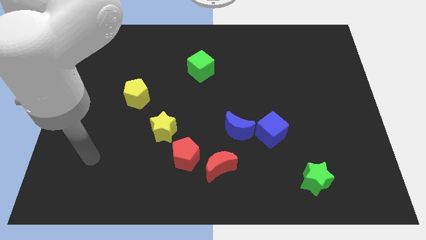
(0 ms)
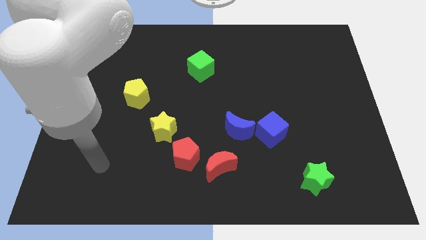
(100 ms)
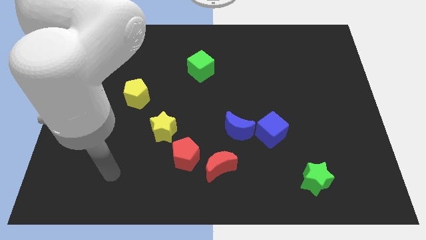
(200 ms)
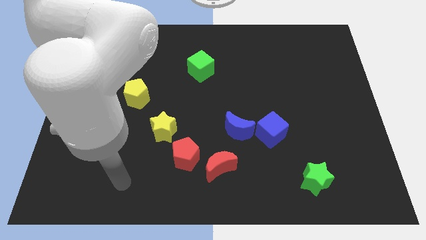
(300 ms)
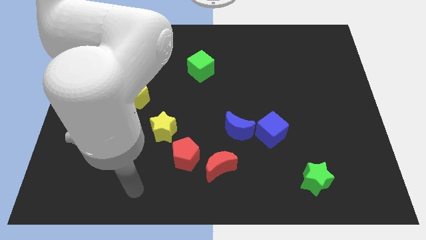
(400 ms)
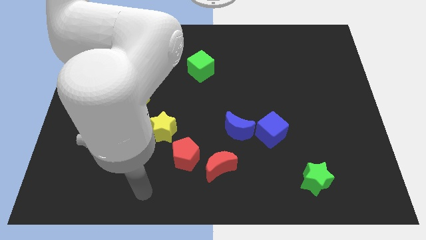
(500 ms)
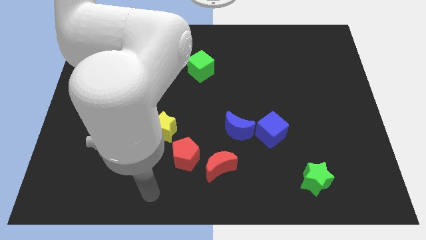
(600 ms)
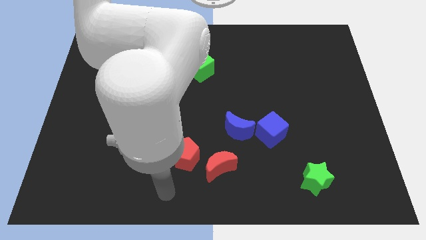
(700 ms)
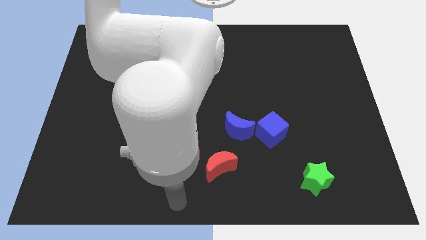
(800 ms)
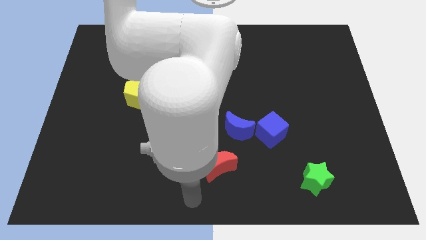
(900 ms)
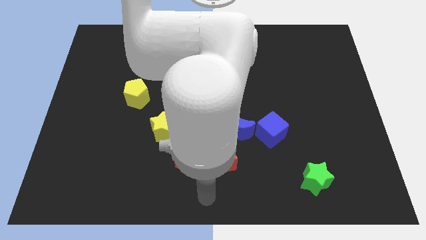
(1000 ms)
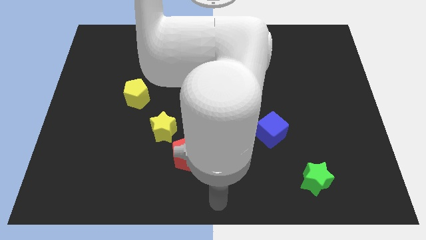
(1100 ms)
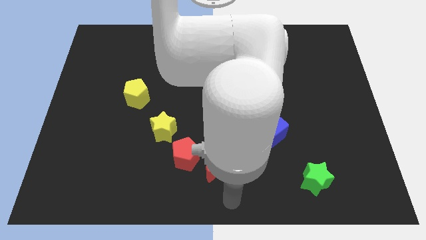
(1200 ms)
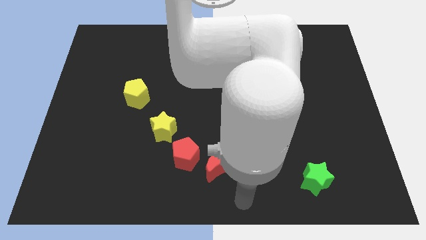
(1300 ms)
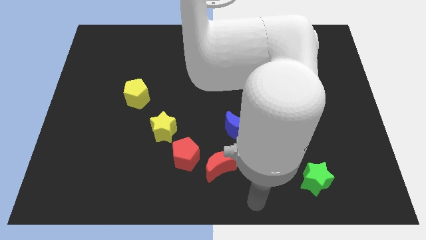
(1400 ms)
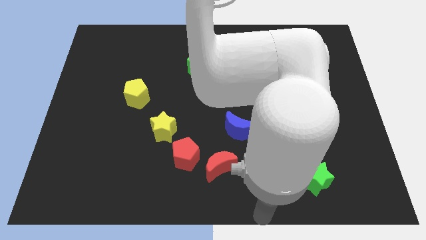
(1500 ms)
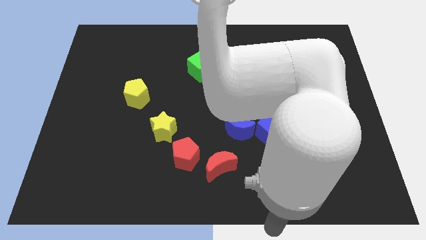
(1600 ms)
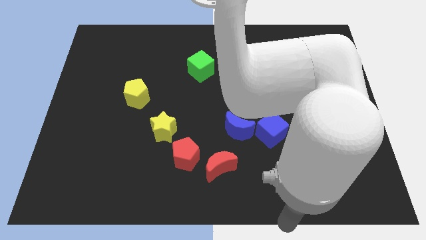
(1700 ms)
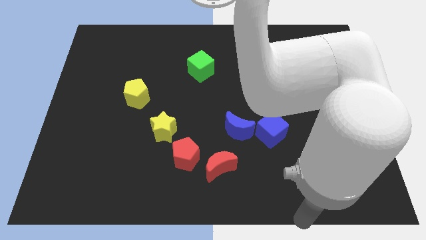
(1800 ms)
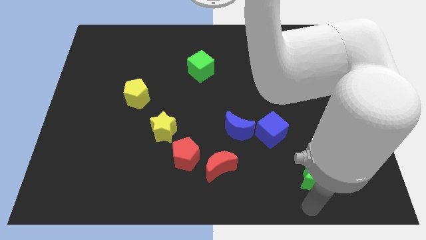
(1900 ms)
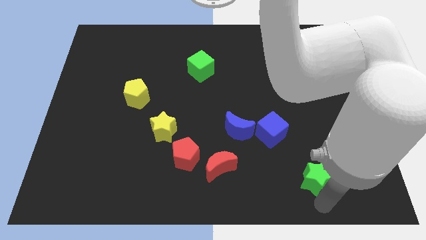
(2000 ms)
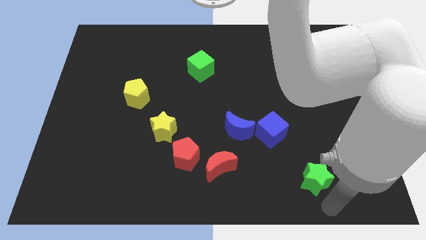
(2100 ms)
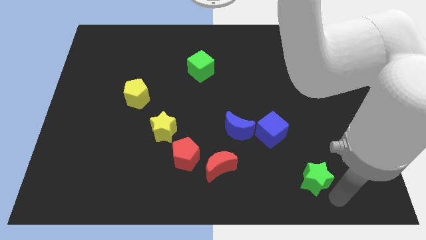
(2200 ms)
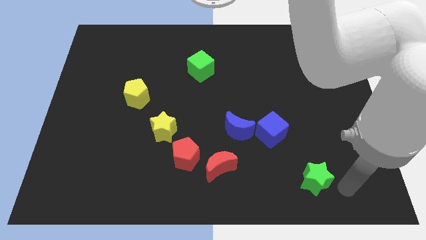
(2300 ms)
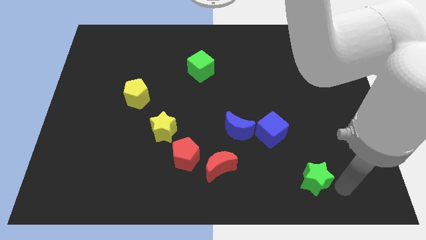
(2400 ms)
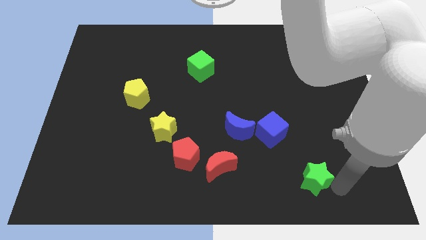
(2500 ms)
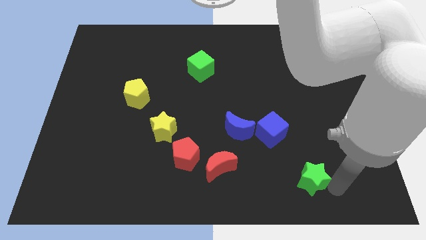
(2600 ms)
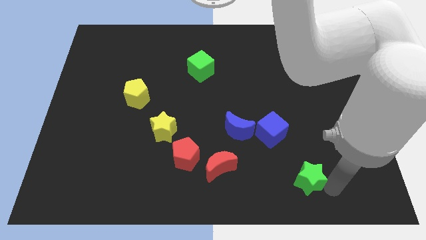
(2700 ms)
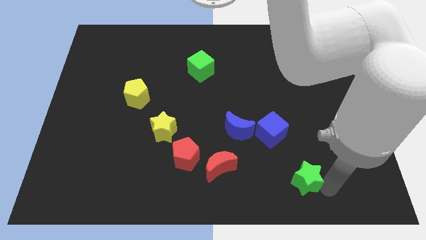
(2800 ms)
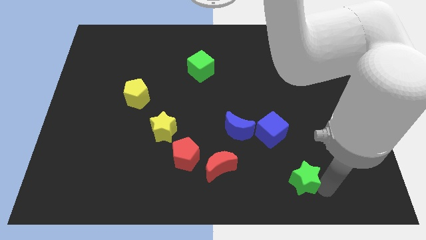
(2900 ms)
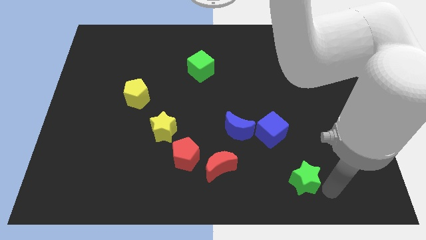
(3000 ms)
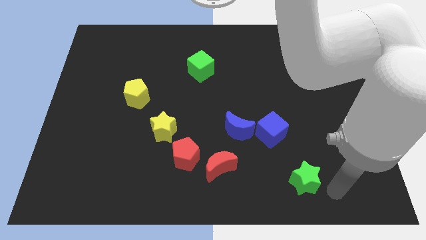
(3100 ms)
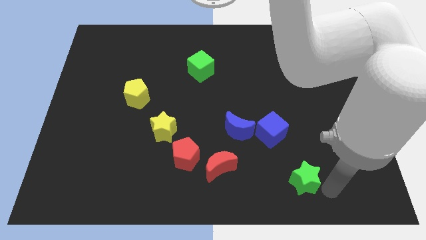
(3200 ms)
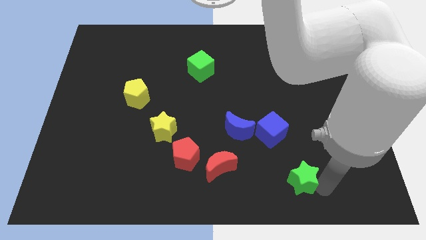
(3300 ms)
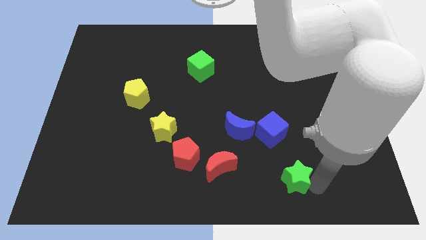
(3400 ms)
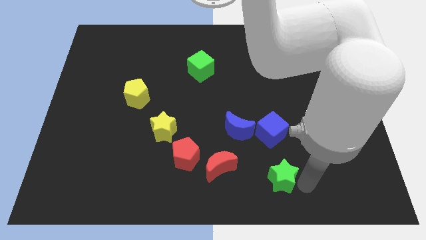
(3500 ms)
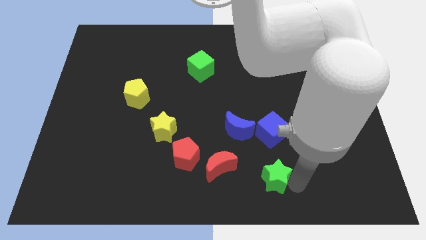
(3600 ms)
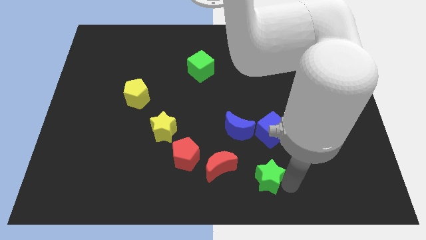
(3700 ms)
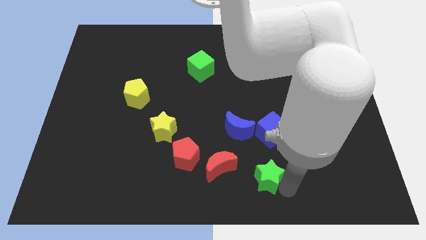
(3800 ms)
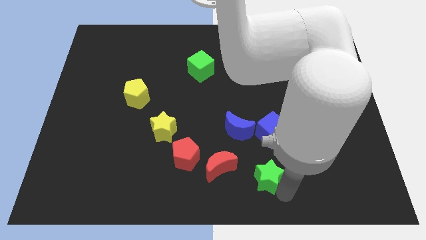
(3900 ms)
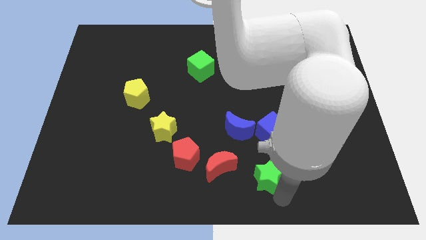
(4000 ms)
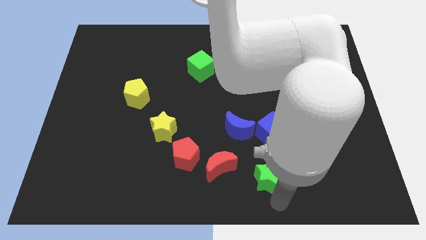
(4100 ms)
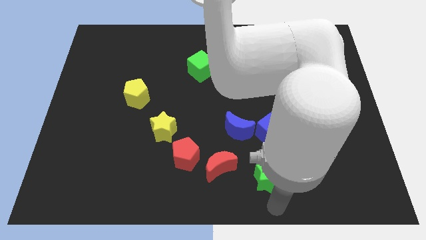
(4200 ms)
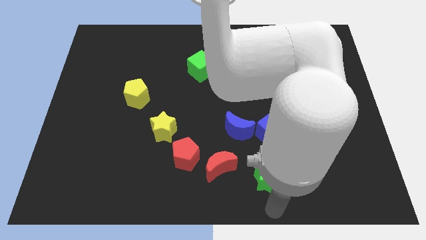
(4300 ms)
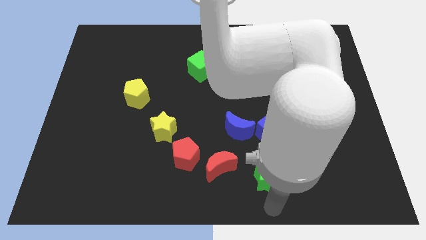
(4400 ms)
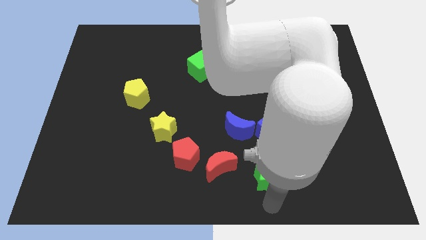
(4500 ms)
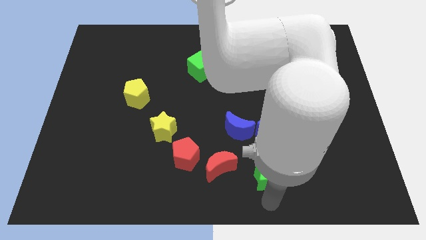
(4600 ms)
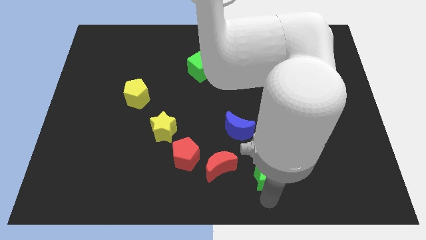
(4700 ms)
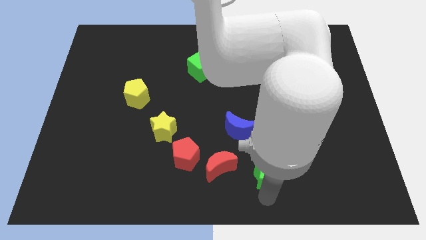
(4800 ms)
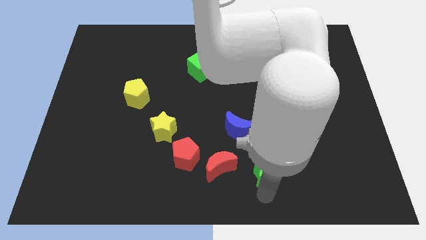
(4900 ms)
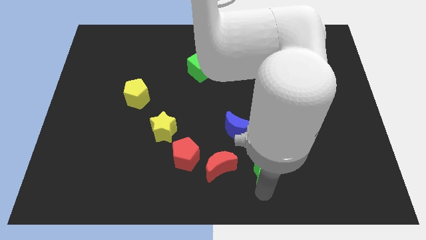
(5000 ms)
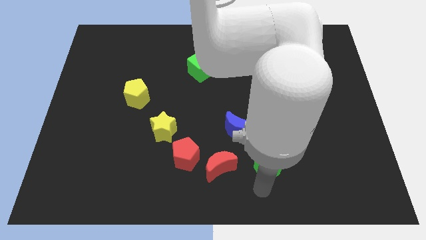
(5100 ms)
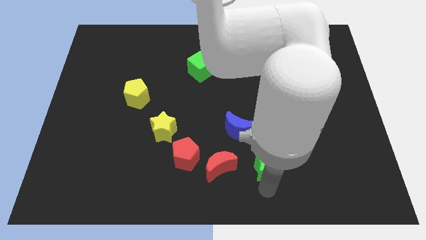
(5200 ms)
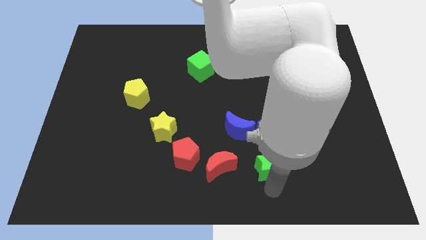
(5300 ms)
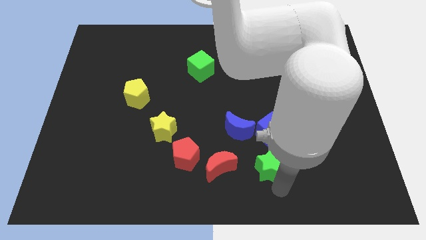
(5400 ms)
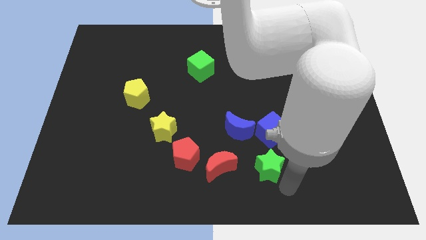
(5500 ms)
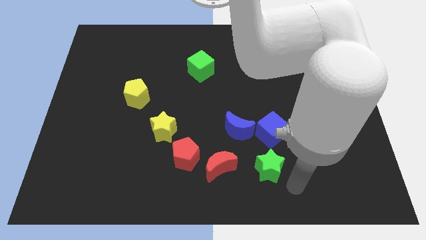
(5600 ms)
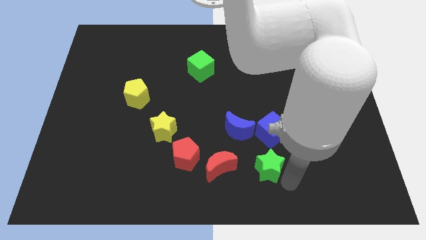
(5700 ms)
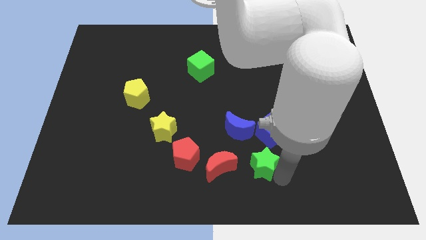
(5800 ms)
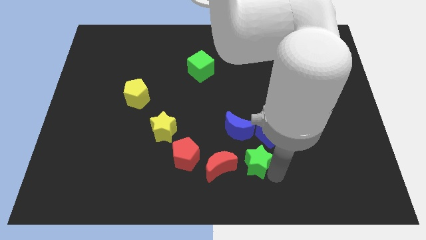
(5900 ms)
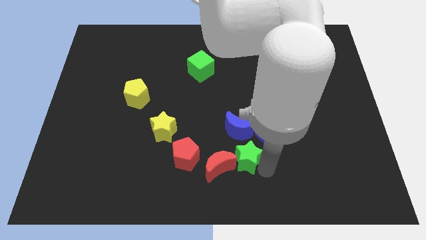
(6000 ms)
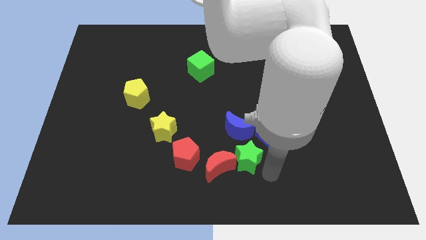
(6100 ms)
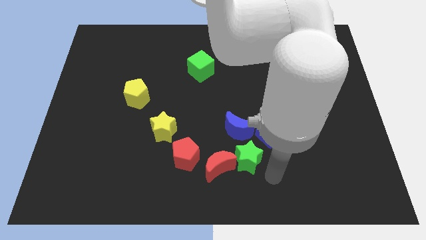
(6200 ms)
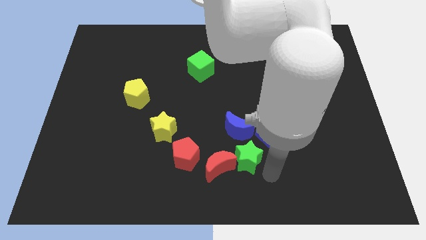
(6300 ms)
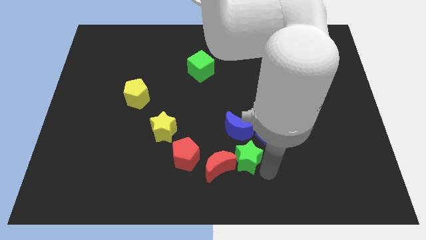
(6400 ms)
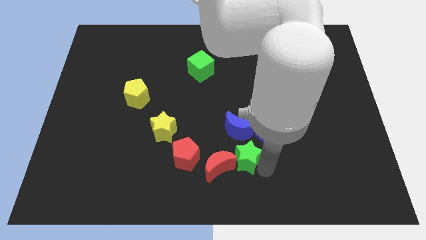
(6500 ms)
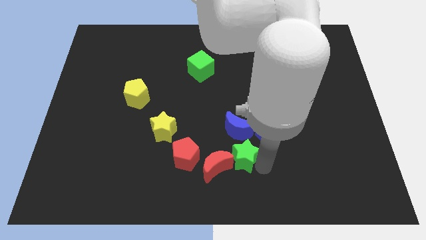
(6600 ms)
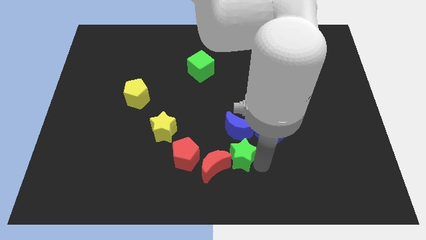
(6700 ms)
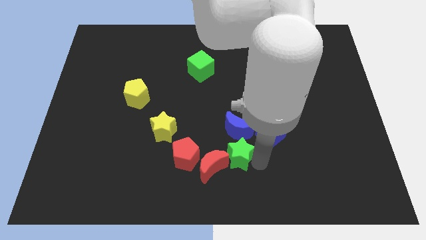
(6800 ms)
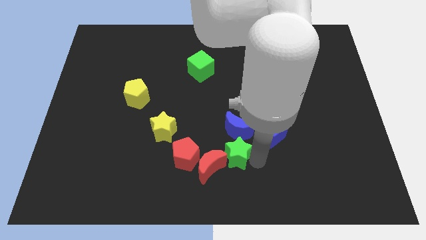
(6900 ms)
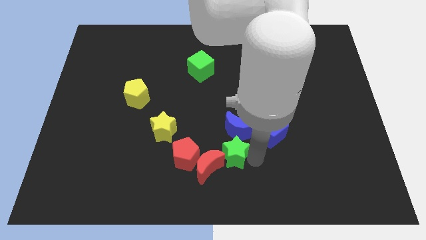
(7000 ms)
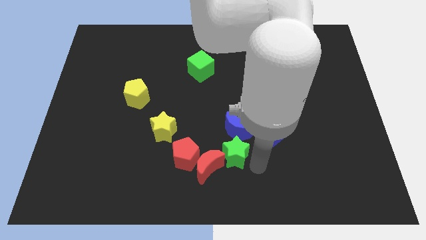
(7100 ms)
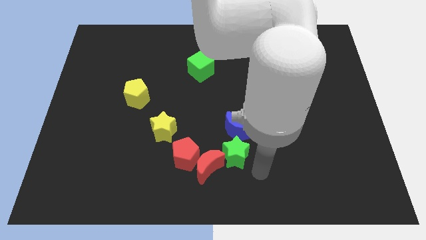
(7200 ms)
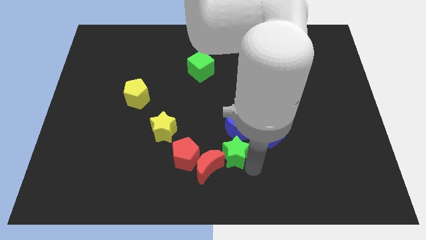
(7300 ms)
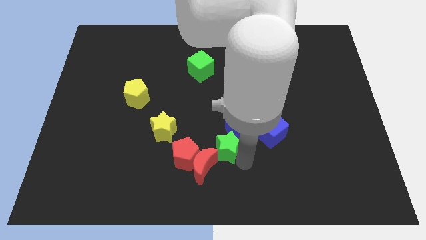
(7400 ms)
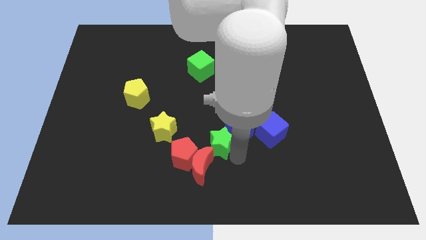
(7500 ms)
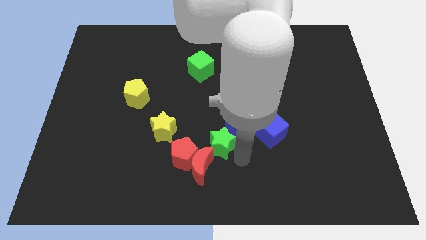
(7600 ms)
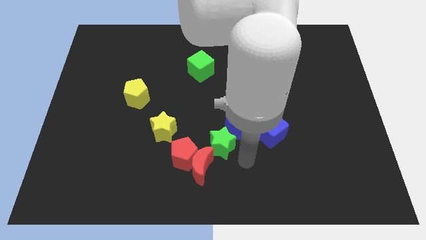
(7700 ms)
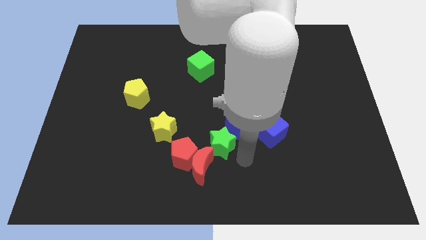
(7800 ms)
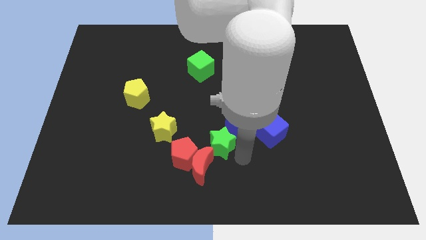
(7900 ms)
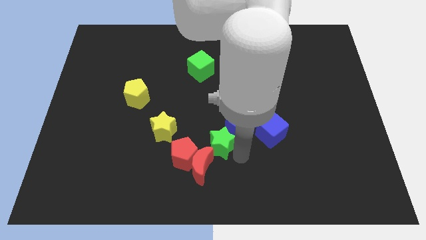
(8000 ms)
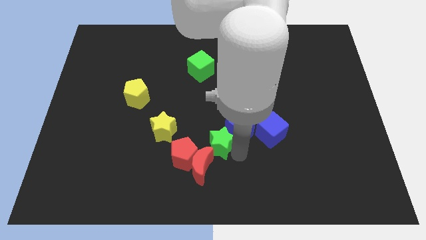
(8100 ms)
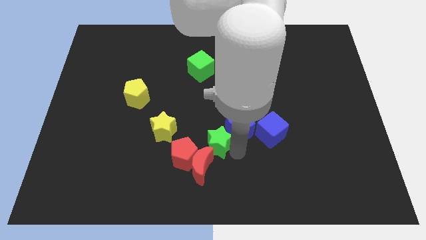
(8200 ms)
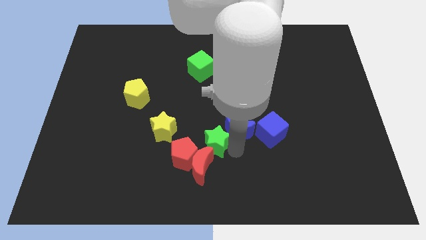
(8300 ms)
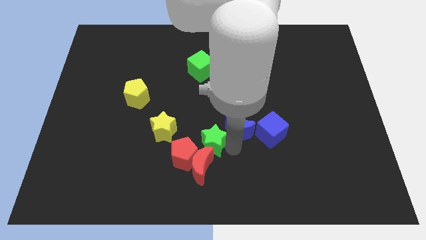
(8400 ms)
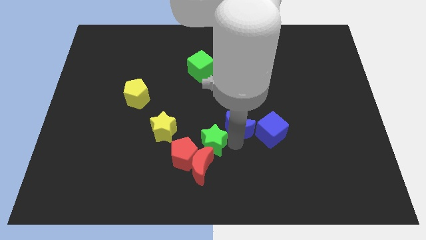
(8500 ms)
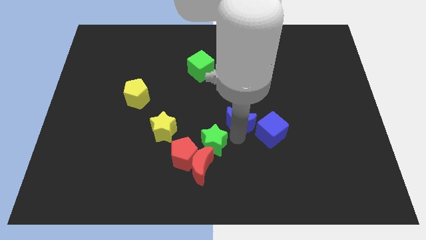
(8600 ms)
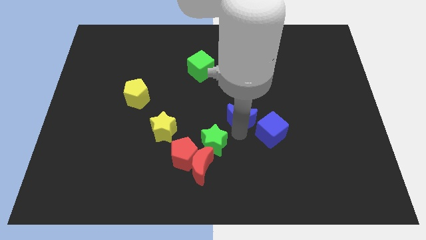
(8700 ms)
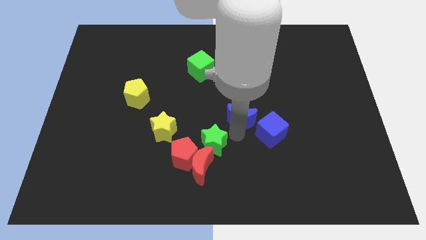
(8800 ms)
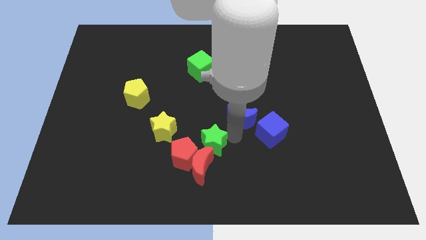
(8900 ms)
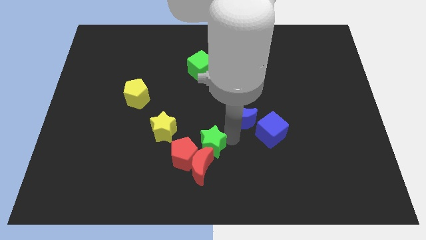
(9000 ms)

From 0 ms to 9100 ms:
slide the green star next to the red pentagon
